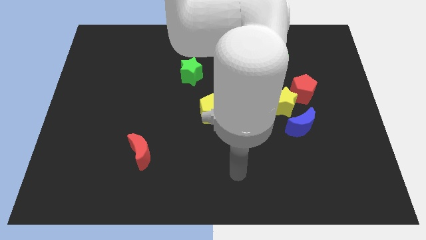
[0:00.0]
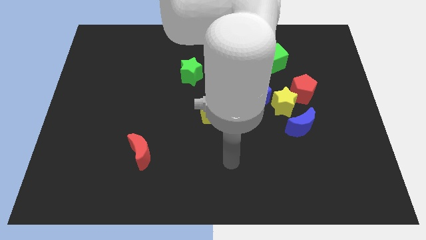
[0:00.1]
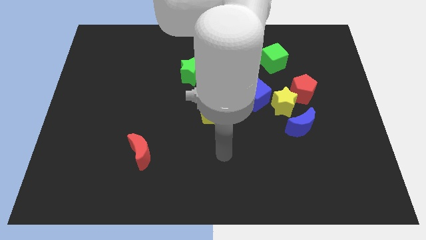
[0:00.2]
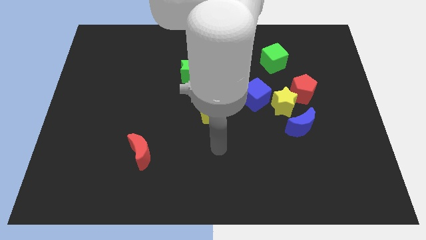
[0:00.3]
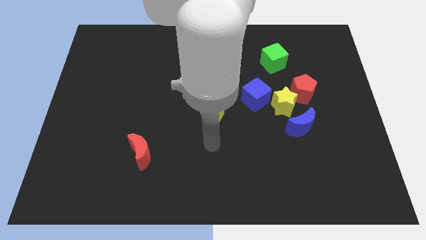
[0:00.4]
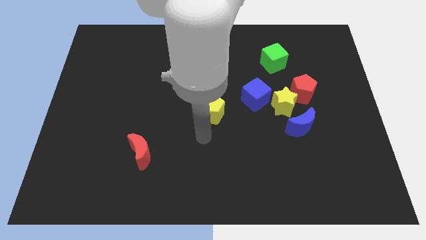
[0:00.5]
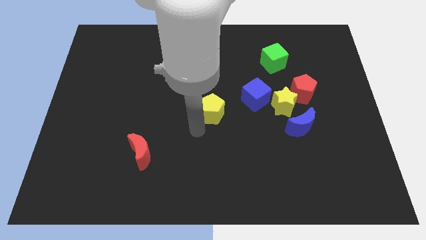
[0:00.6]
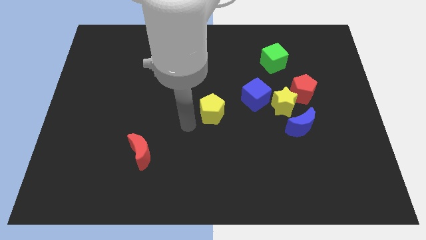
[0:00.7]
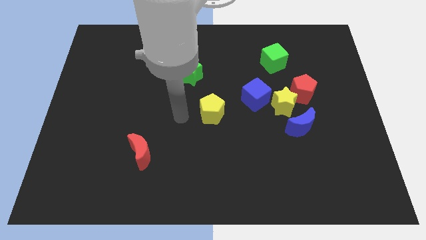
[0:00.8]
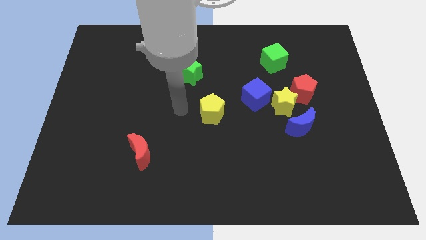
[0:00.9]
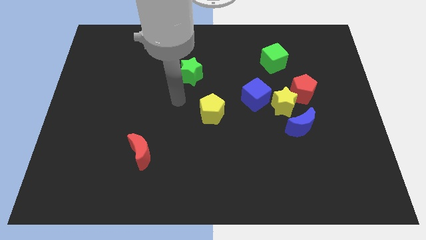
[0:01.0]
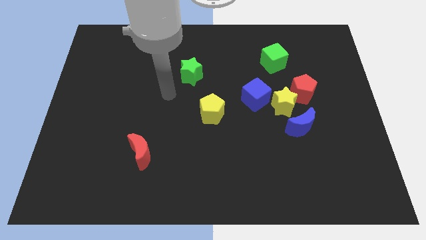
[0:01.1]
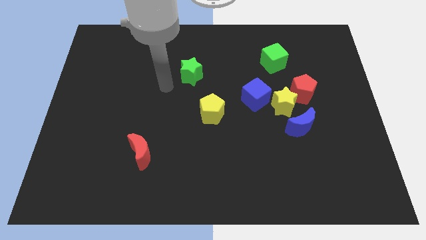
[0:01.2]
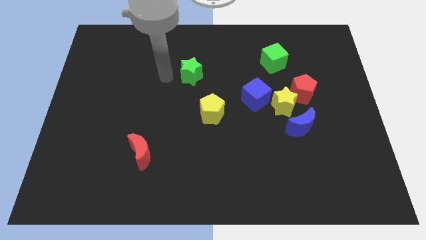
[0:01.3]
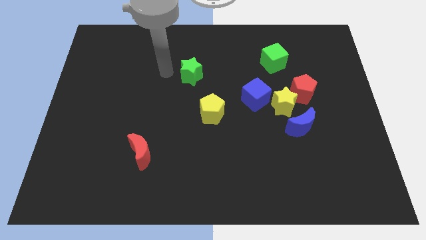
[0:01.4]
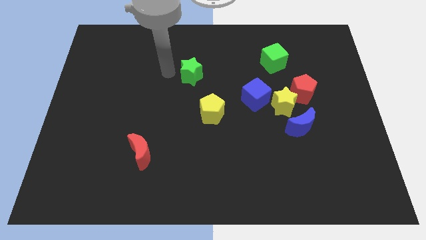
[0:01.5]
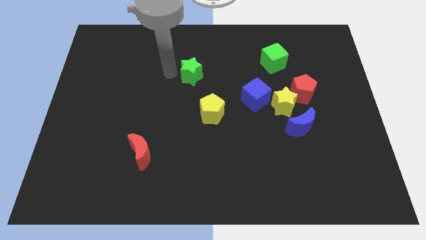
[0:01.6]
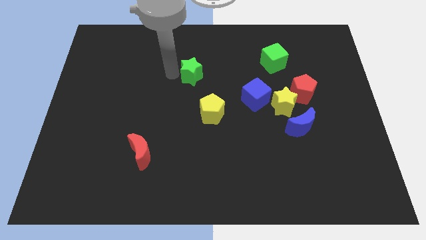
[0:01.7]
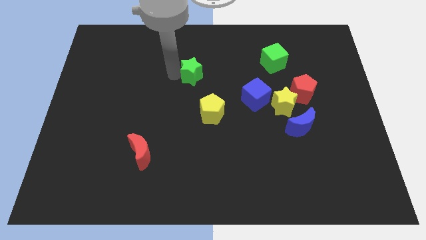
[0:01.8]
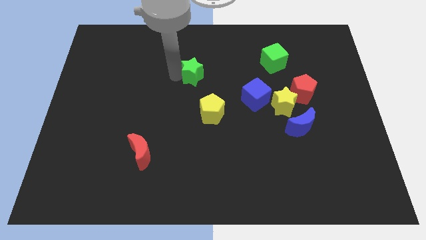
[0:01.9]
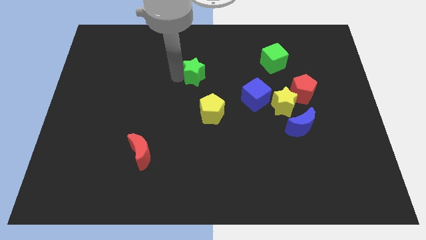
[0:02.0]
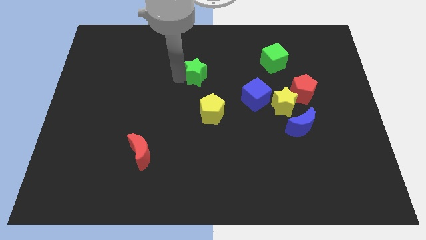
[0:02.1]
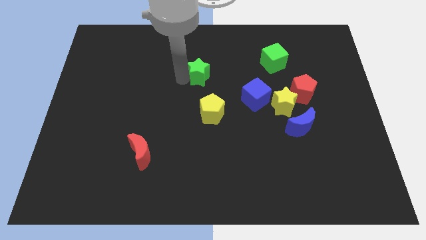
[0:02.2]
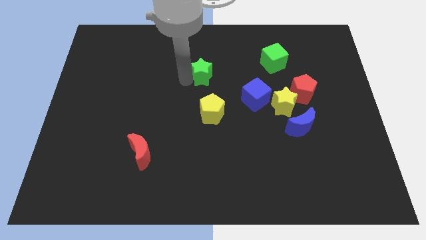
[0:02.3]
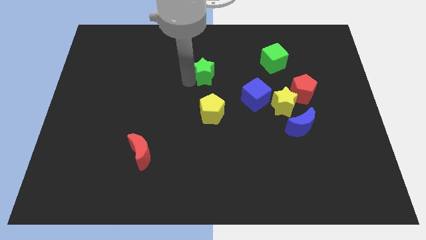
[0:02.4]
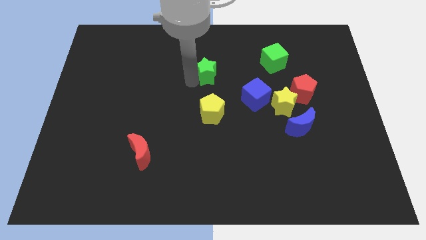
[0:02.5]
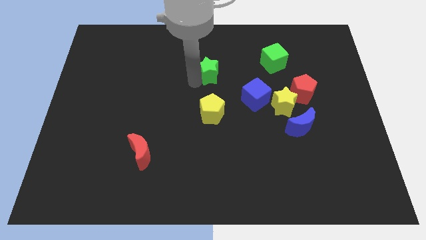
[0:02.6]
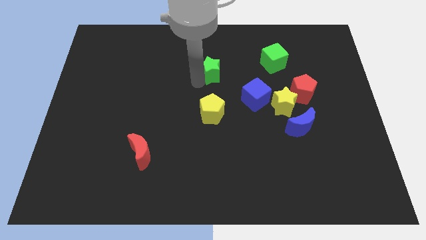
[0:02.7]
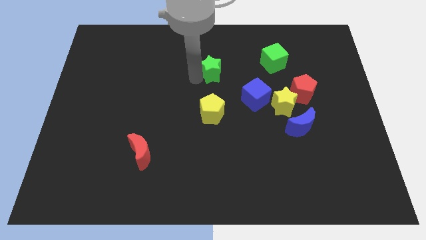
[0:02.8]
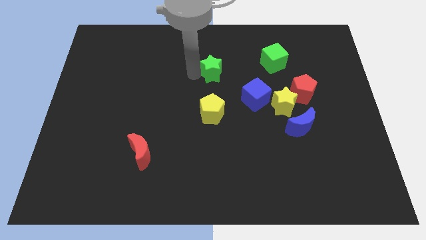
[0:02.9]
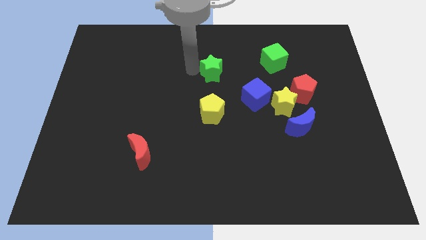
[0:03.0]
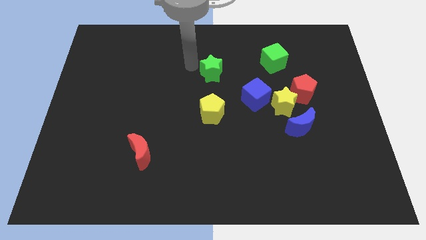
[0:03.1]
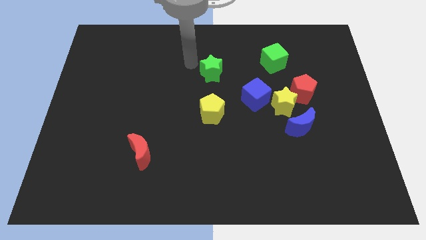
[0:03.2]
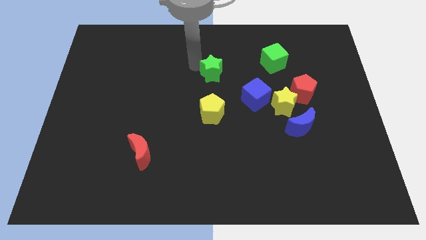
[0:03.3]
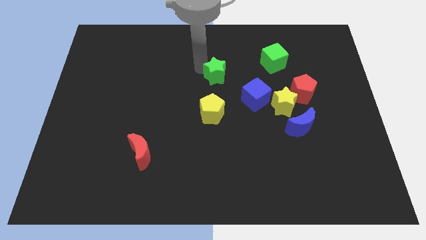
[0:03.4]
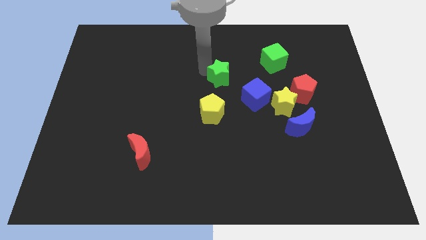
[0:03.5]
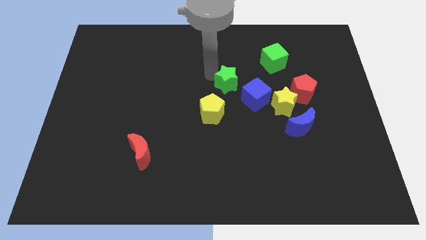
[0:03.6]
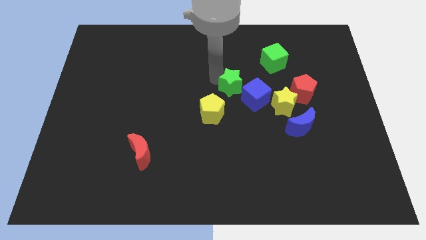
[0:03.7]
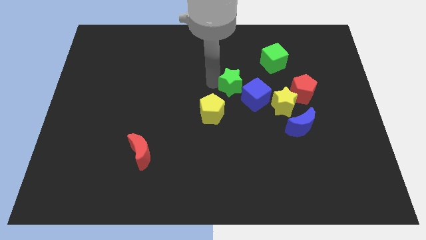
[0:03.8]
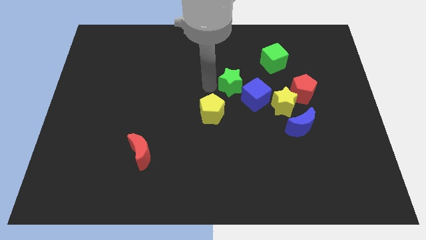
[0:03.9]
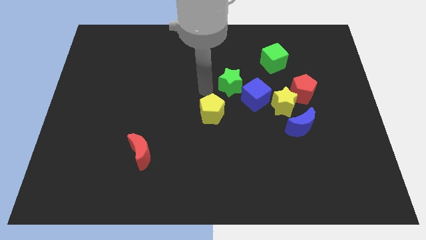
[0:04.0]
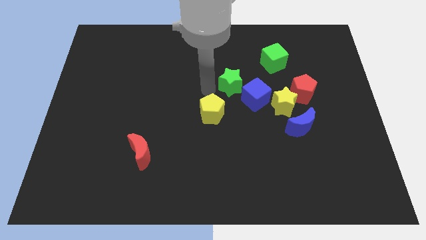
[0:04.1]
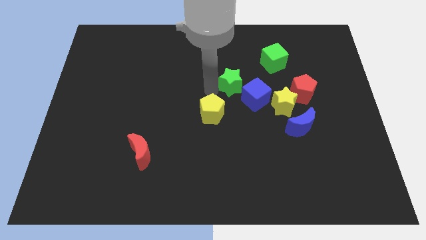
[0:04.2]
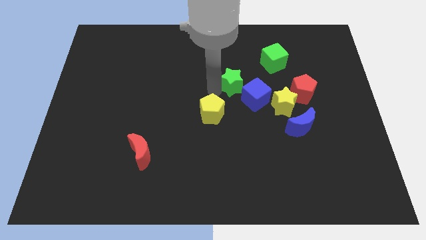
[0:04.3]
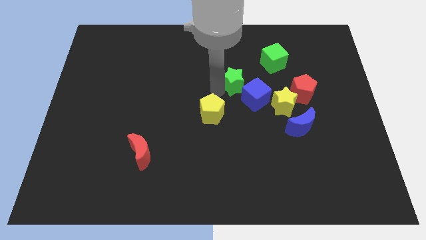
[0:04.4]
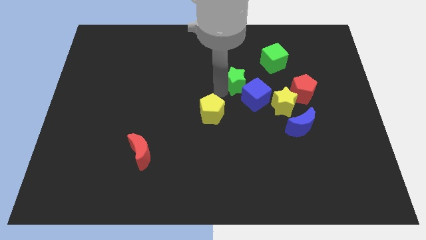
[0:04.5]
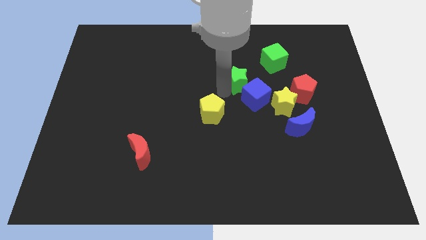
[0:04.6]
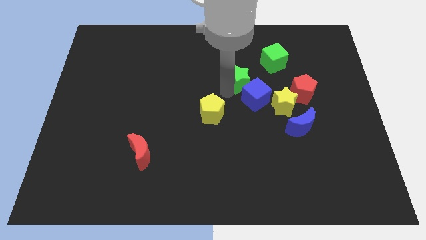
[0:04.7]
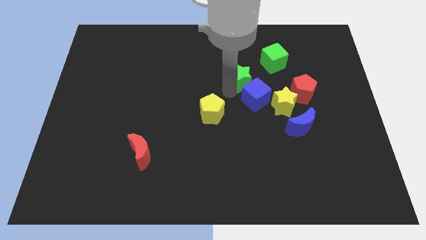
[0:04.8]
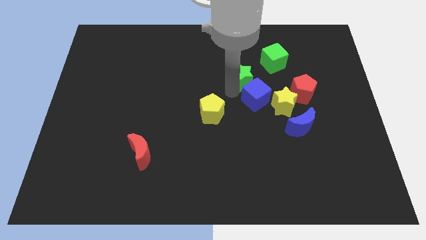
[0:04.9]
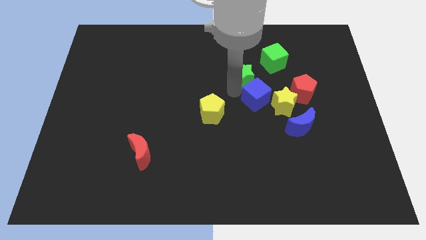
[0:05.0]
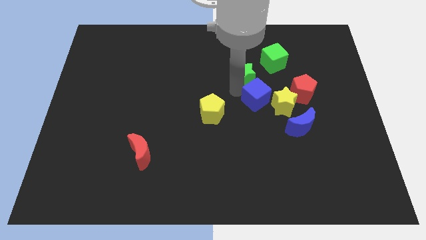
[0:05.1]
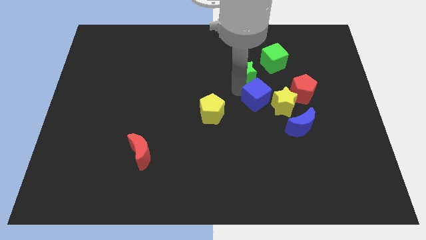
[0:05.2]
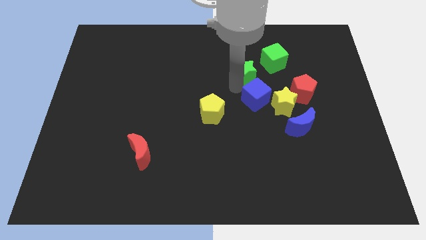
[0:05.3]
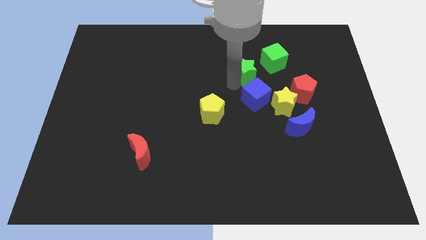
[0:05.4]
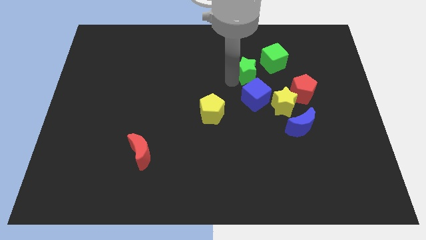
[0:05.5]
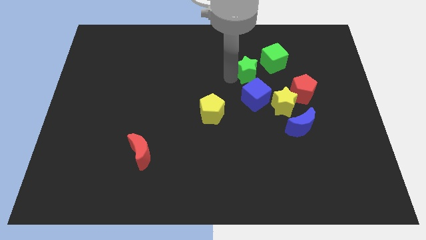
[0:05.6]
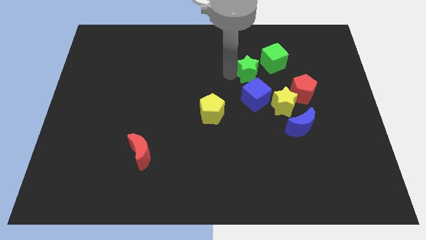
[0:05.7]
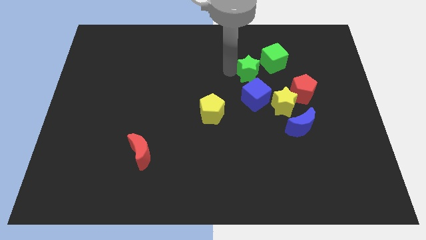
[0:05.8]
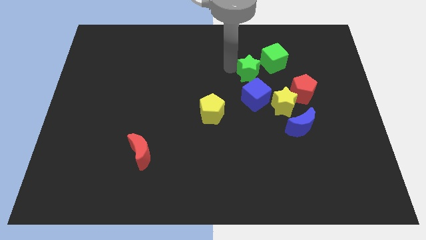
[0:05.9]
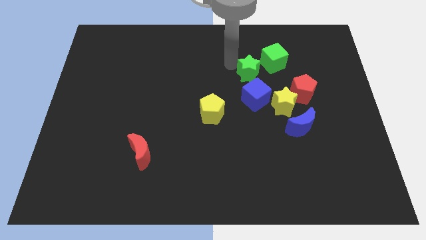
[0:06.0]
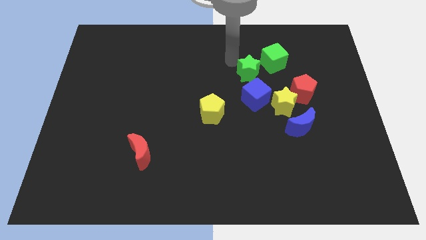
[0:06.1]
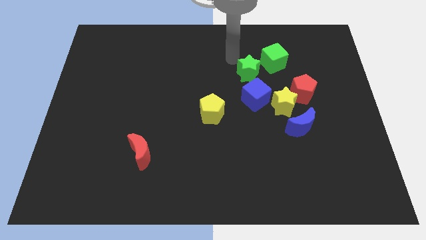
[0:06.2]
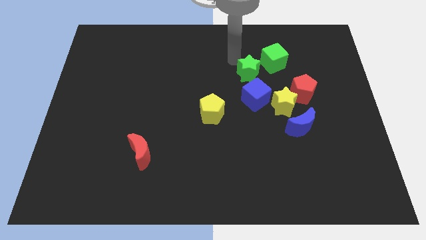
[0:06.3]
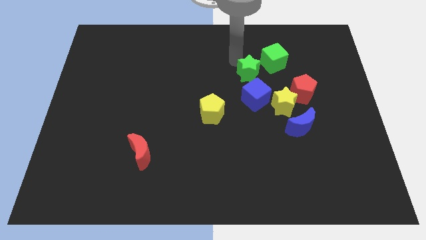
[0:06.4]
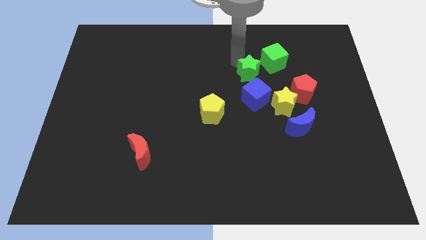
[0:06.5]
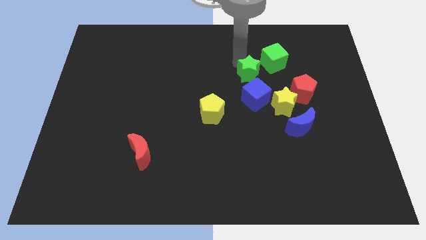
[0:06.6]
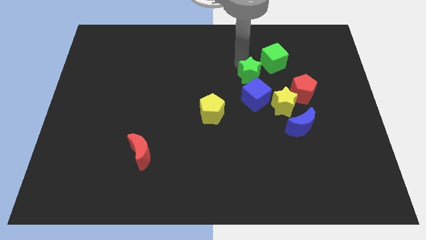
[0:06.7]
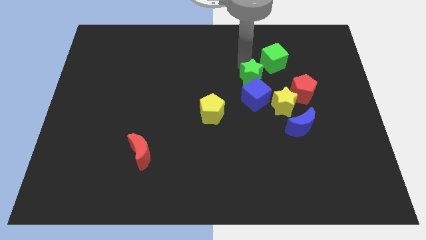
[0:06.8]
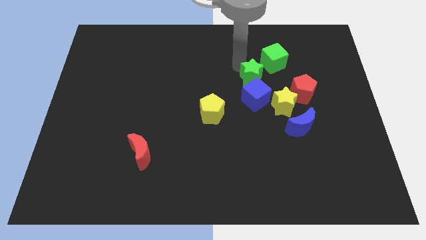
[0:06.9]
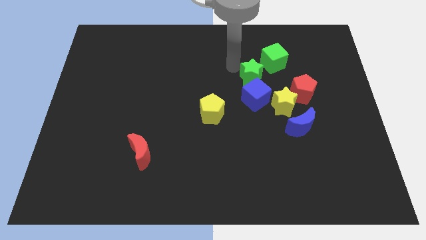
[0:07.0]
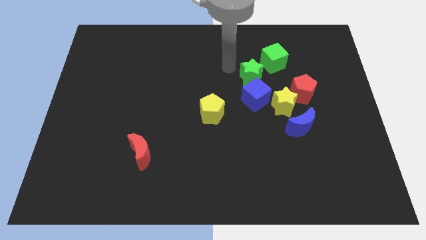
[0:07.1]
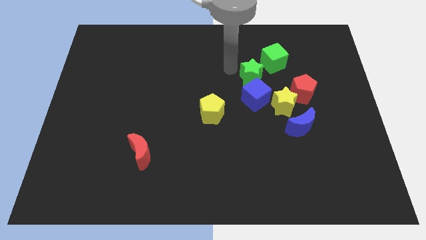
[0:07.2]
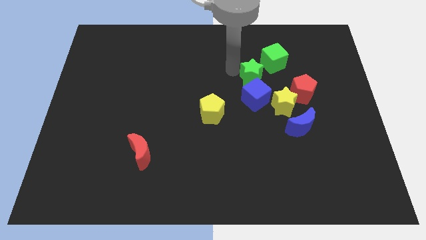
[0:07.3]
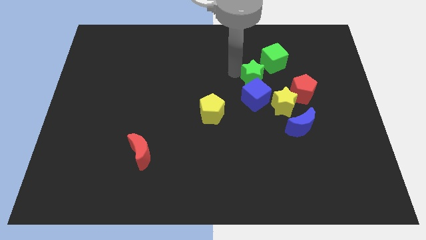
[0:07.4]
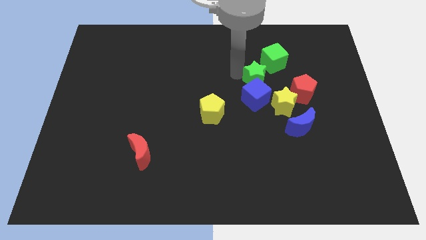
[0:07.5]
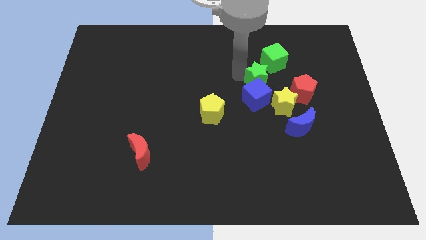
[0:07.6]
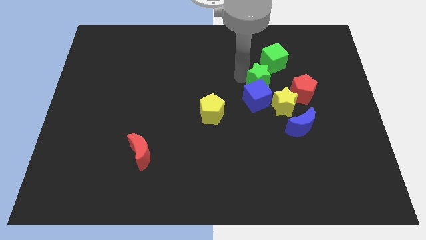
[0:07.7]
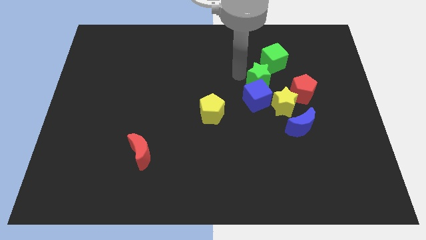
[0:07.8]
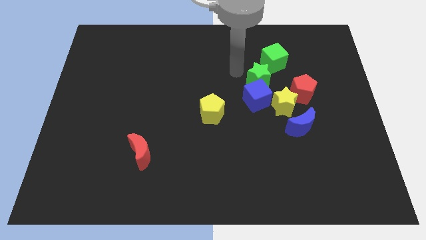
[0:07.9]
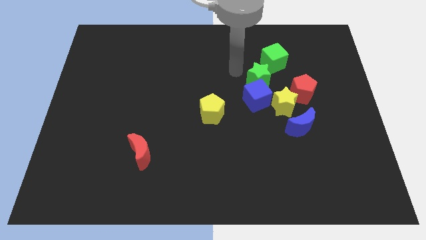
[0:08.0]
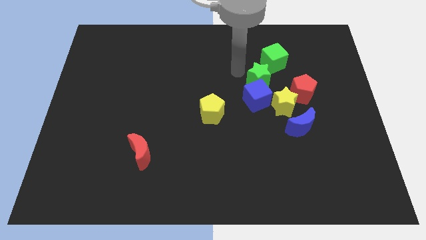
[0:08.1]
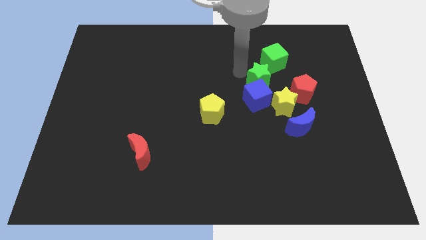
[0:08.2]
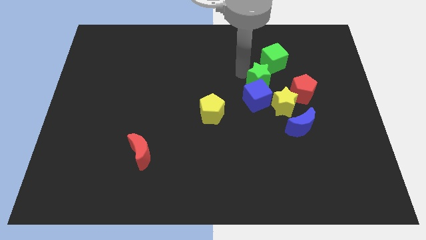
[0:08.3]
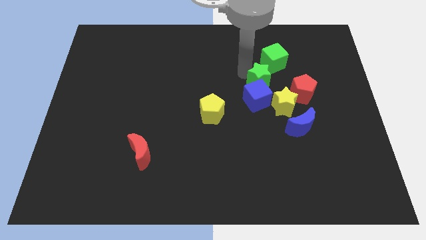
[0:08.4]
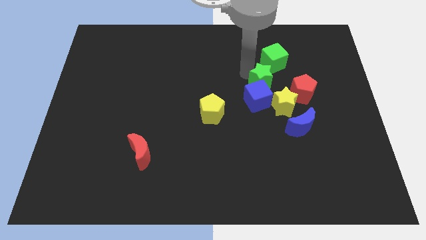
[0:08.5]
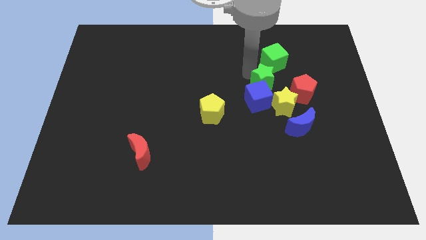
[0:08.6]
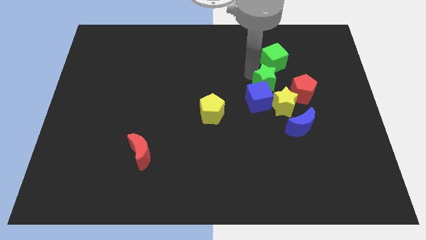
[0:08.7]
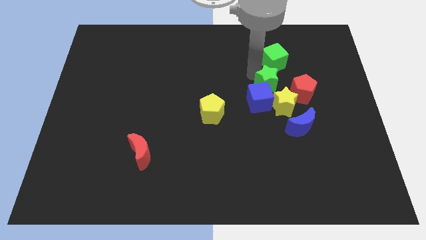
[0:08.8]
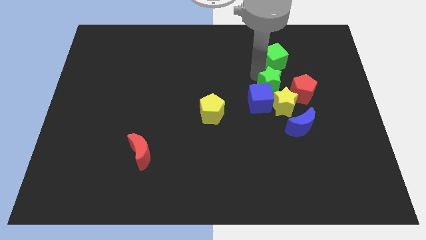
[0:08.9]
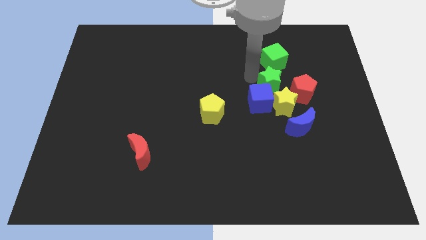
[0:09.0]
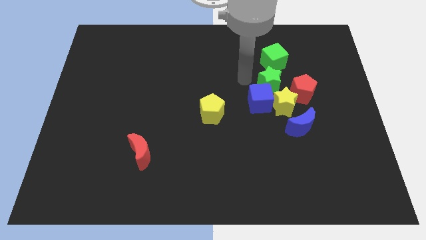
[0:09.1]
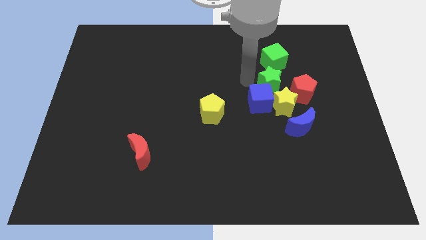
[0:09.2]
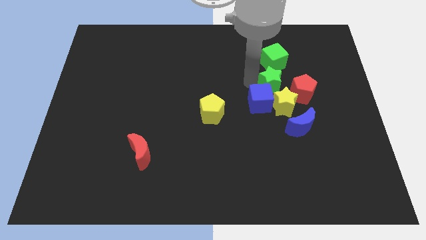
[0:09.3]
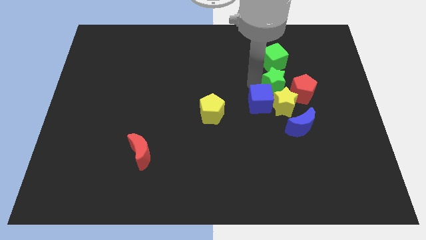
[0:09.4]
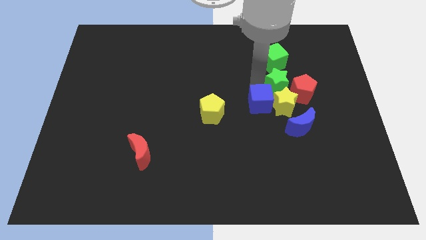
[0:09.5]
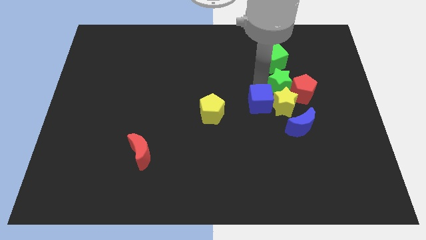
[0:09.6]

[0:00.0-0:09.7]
move the green star close to the red pentagon
